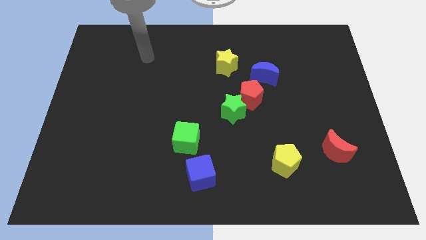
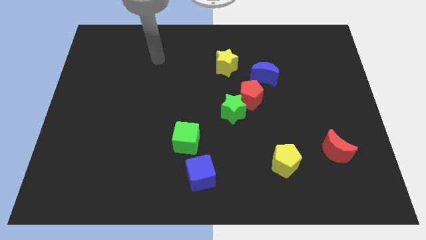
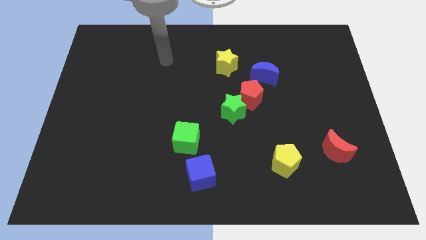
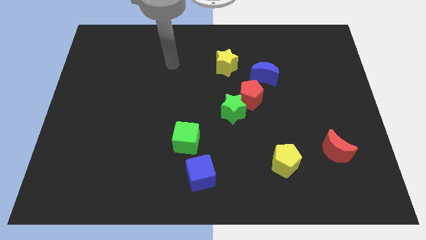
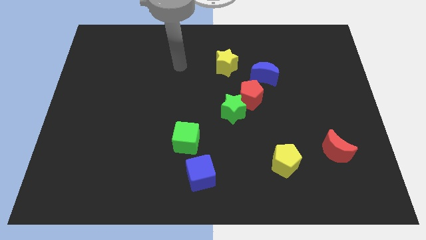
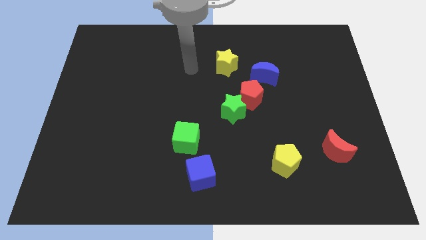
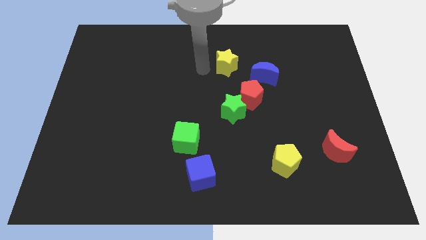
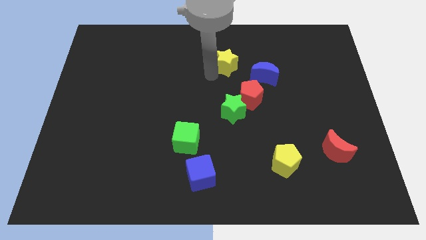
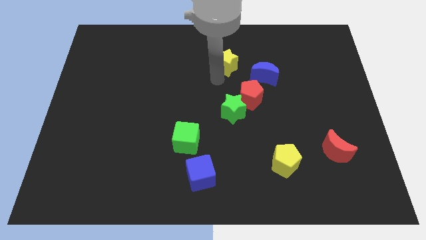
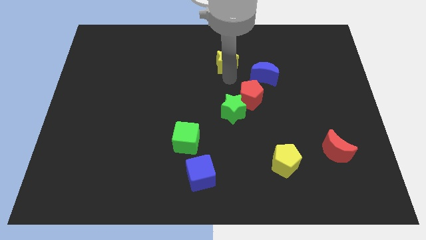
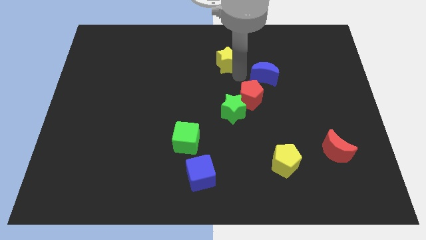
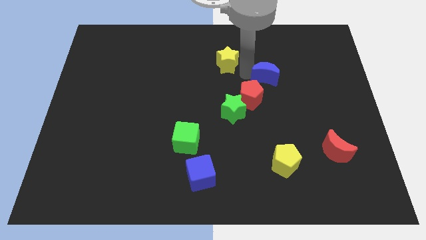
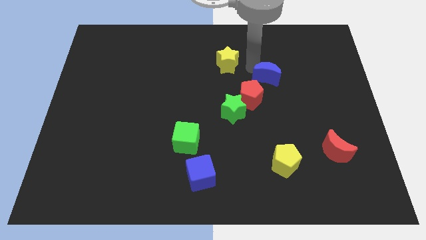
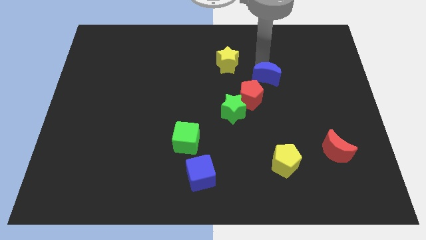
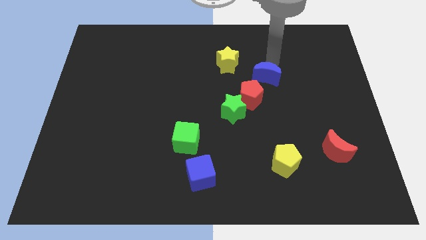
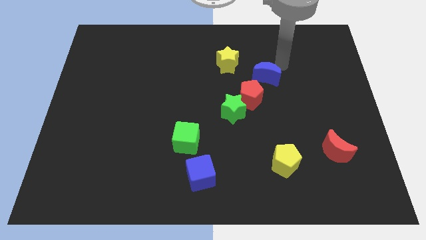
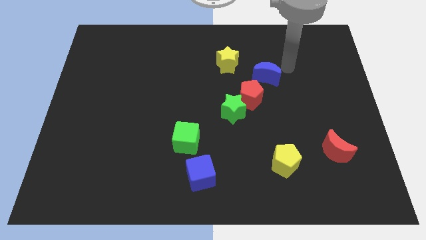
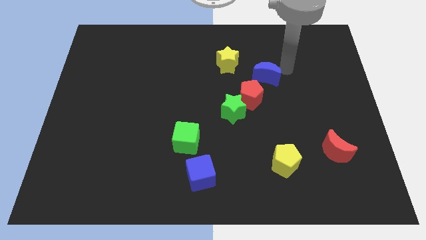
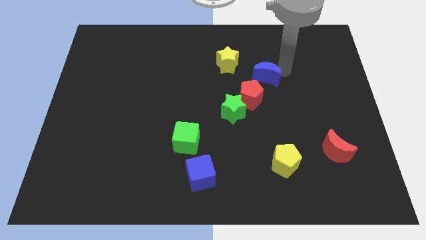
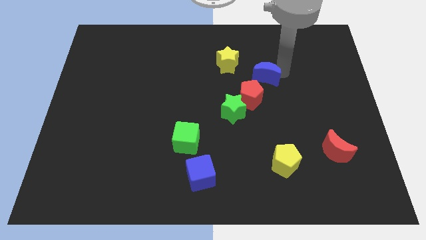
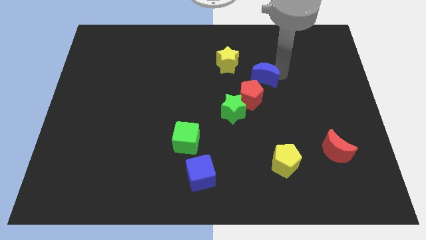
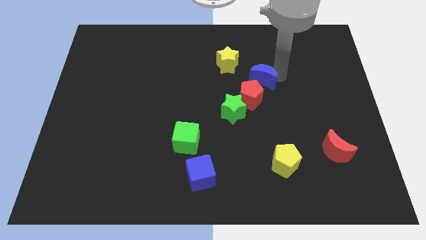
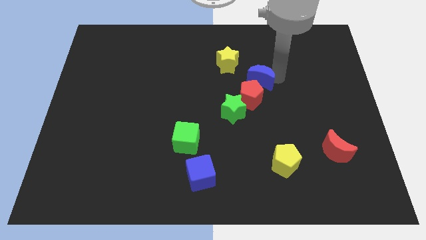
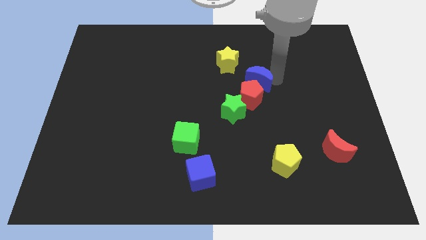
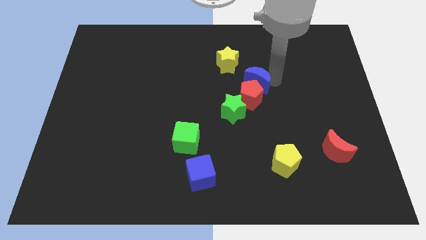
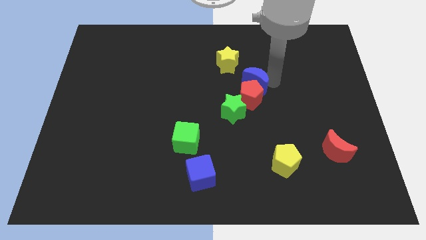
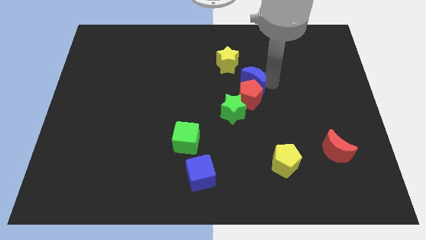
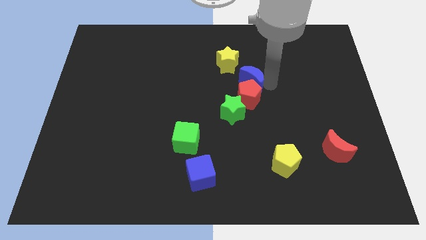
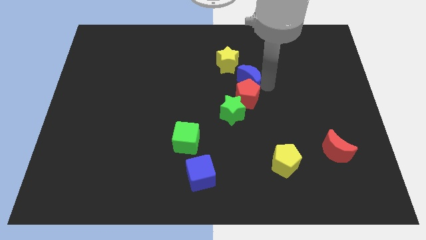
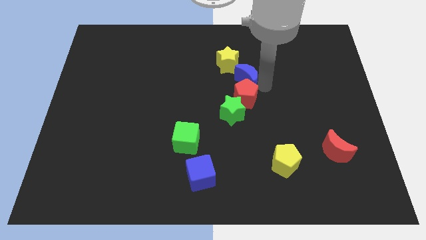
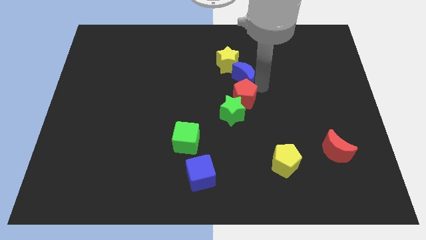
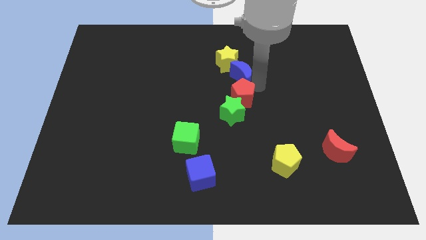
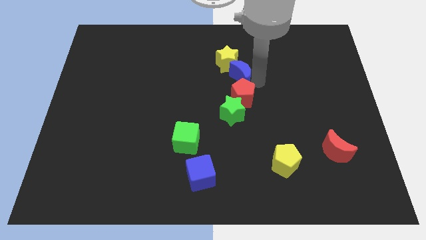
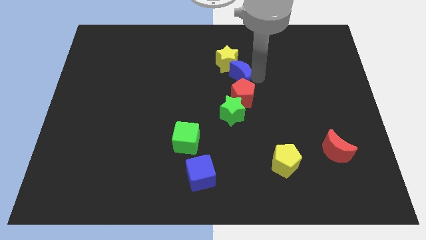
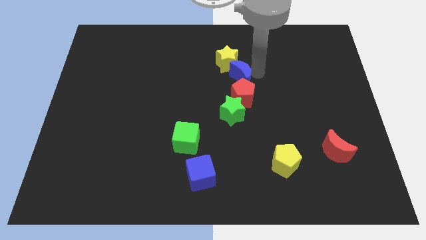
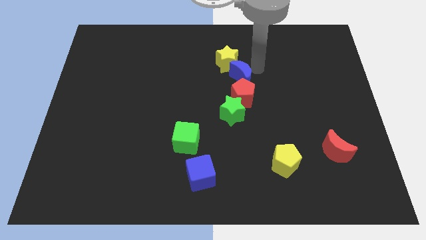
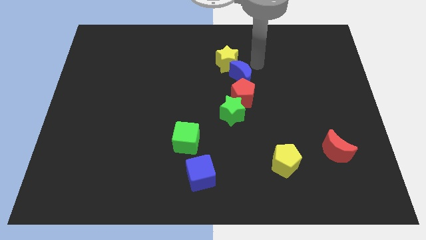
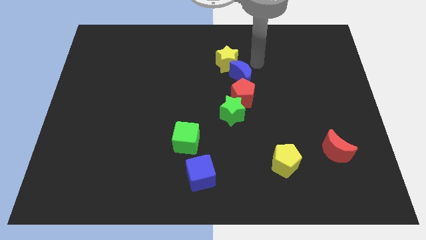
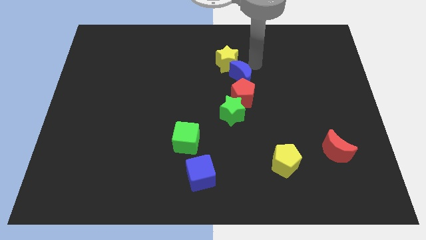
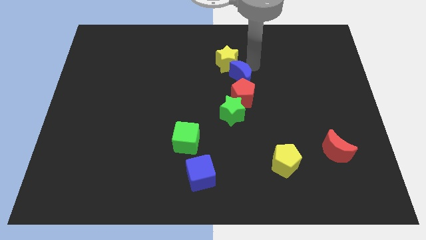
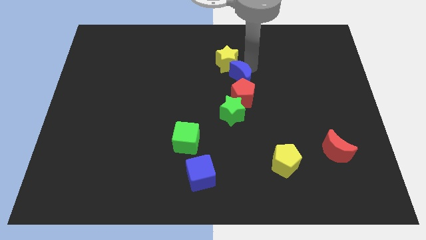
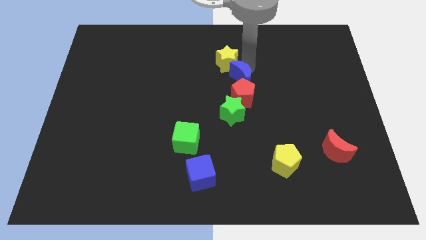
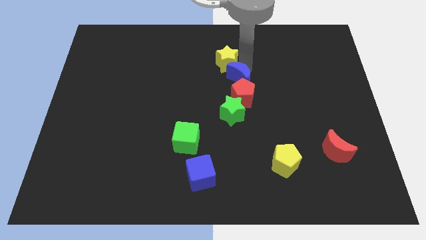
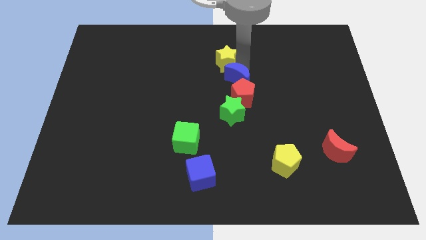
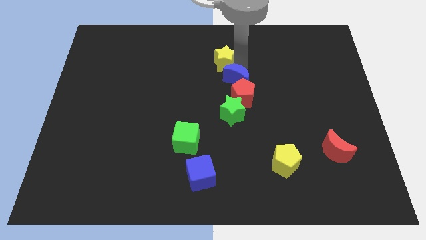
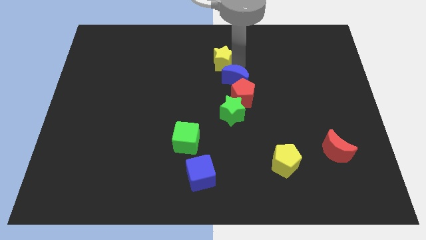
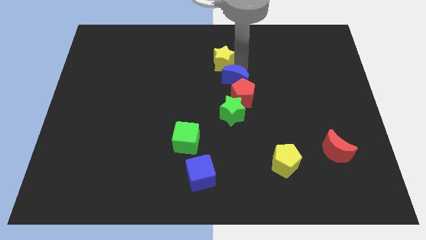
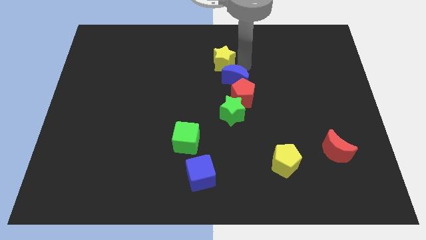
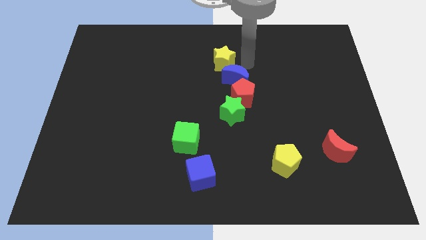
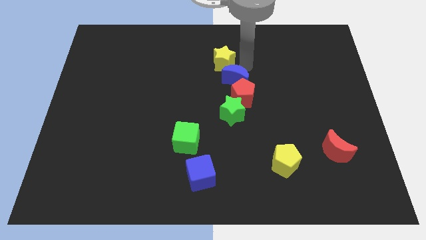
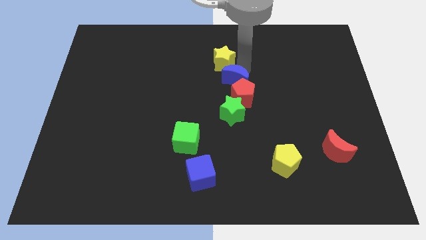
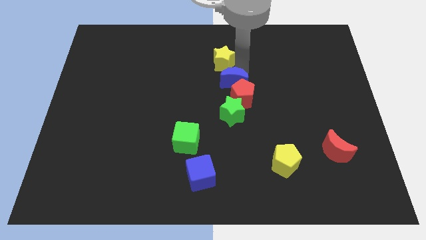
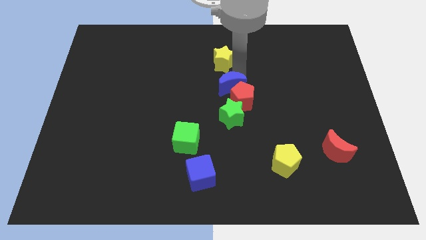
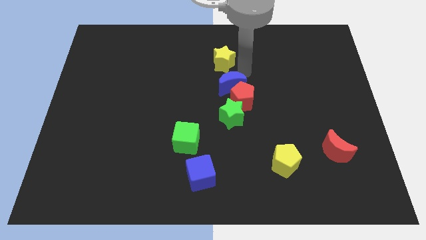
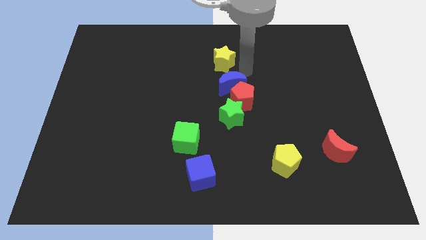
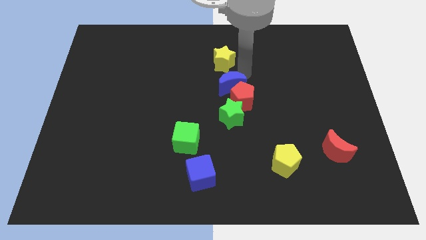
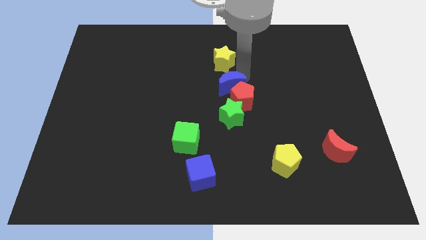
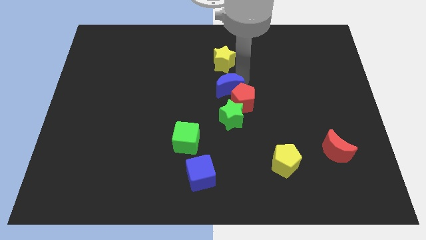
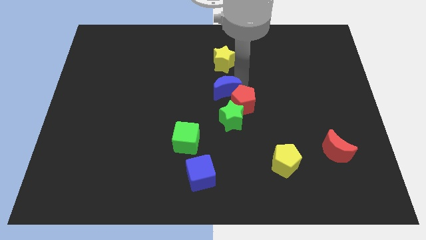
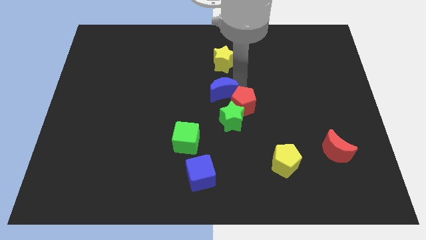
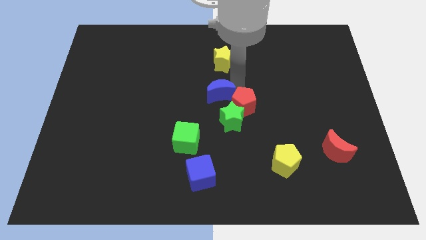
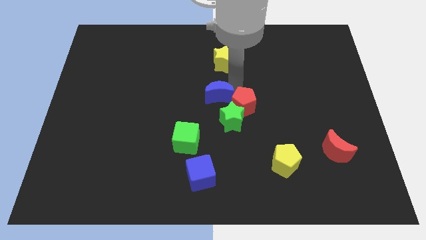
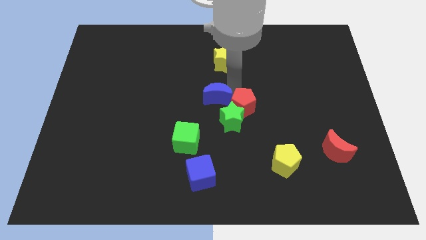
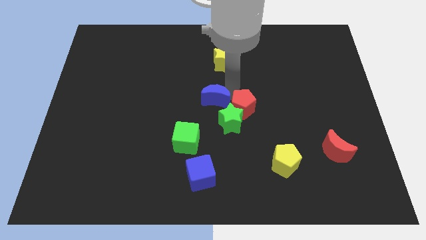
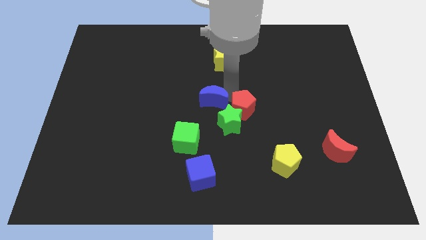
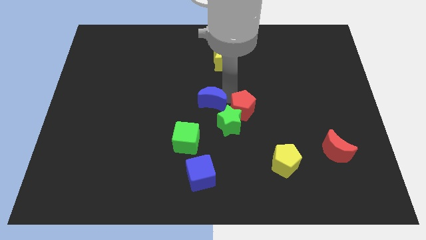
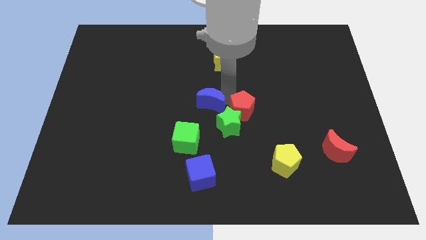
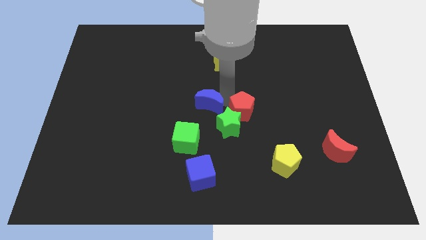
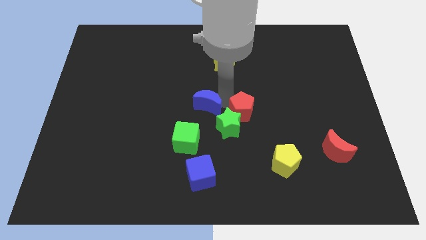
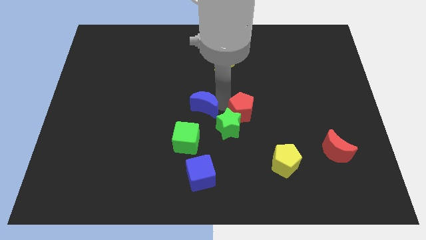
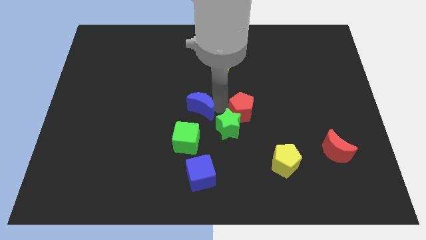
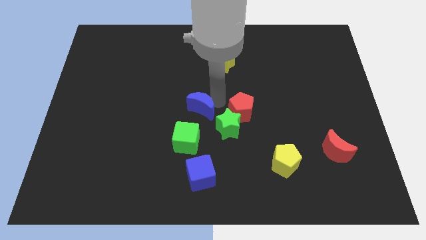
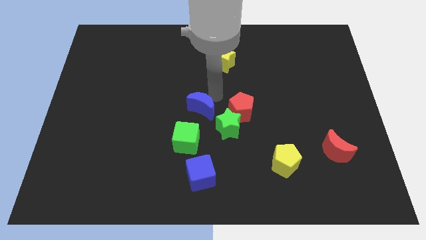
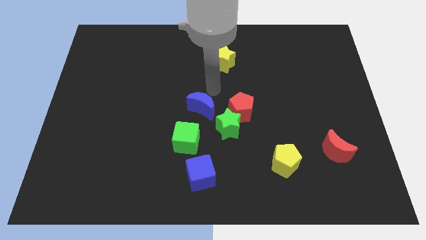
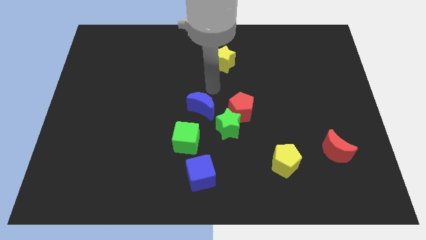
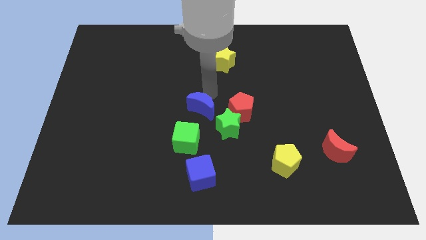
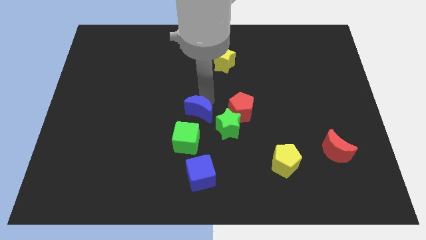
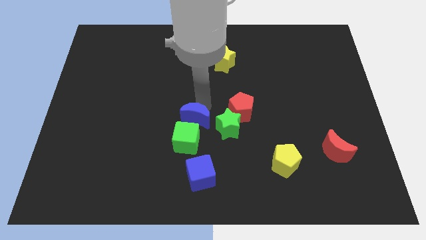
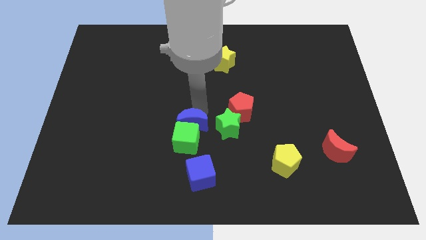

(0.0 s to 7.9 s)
put the blue moon next to the green cube
